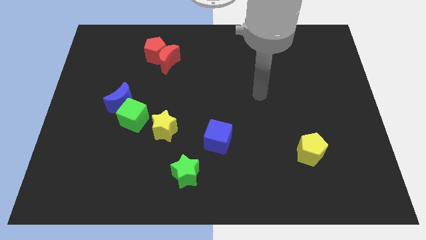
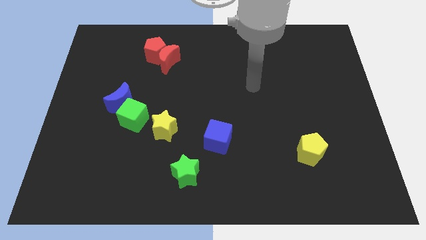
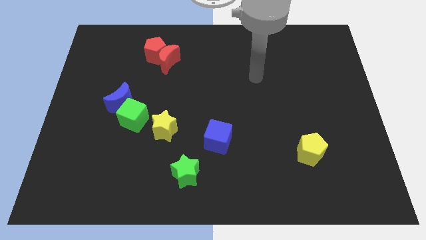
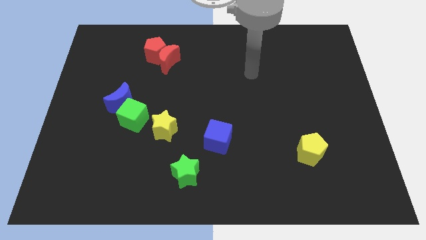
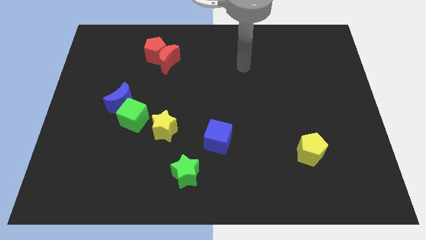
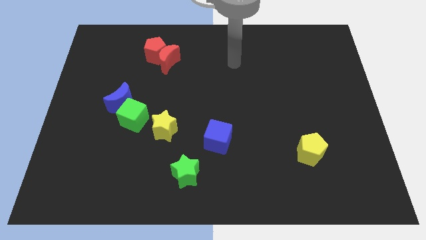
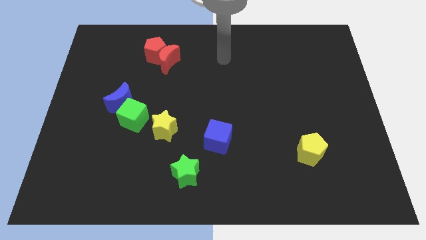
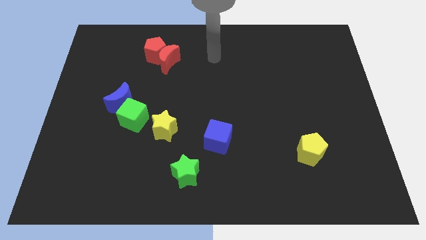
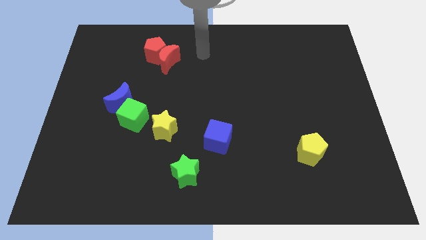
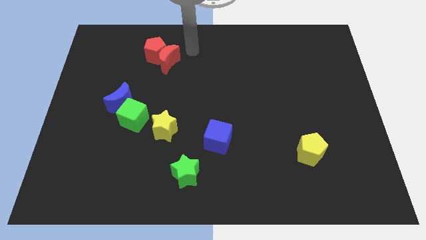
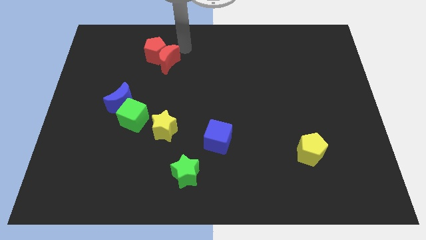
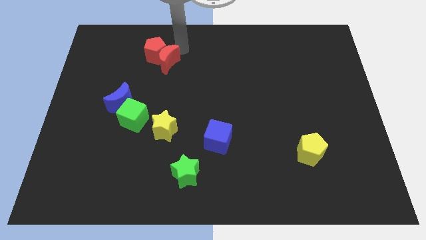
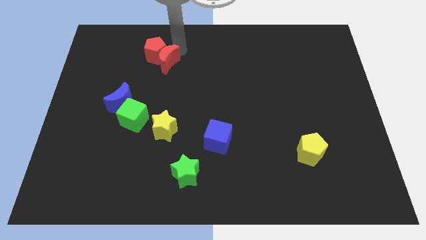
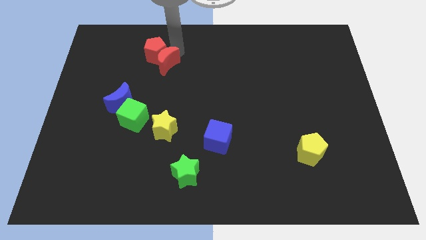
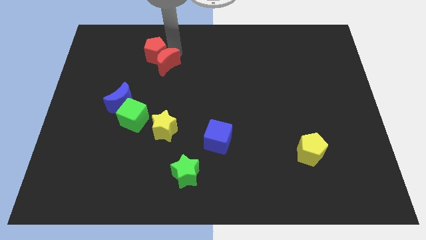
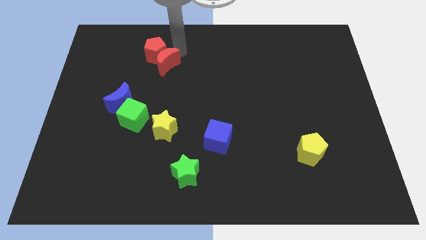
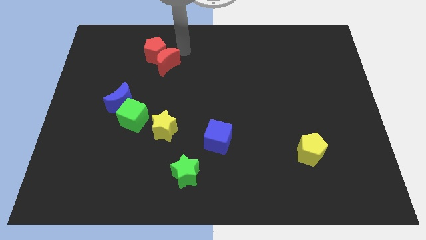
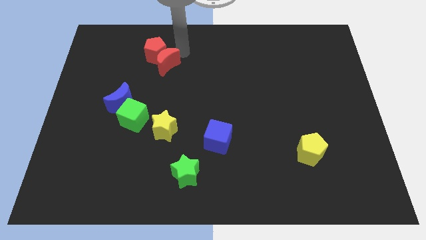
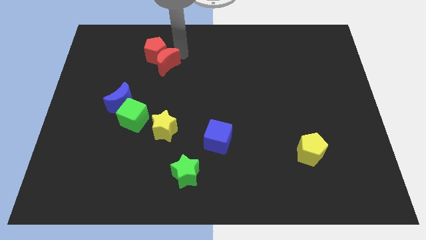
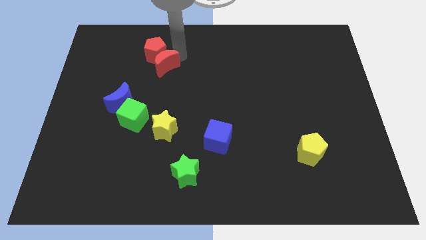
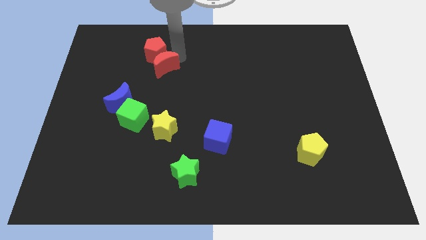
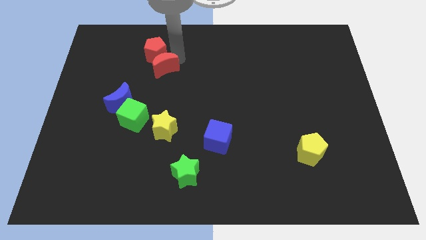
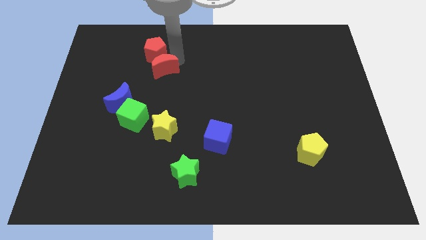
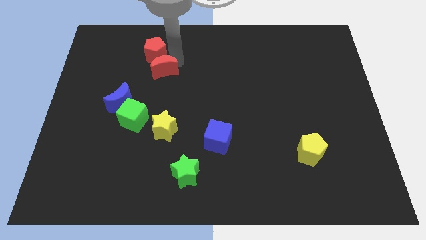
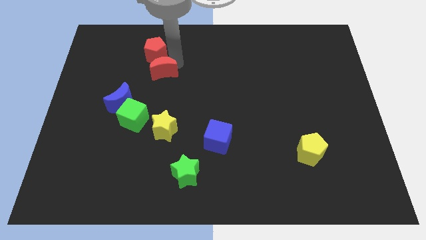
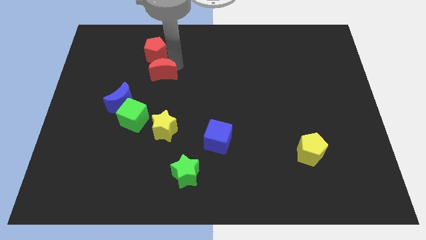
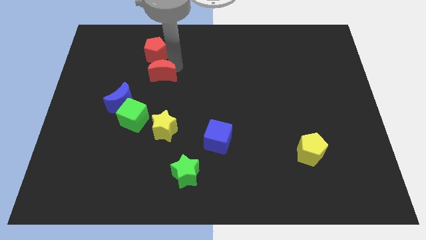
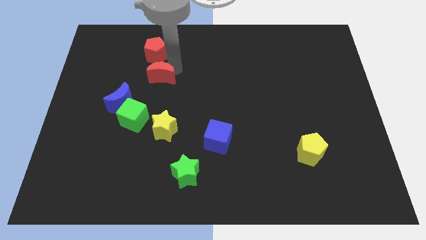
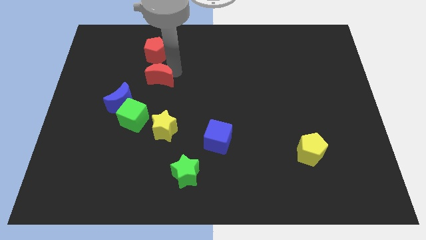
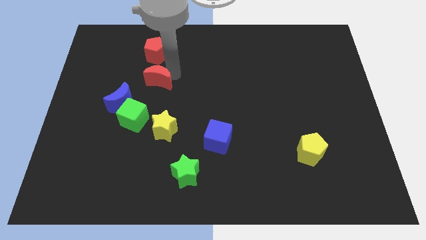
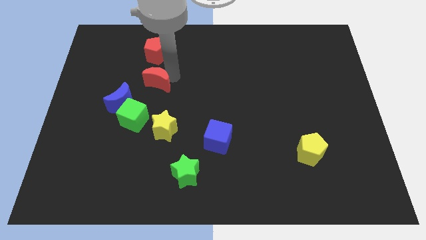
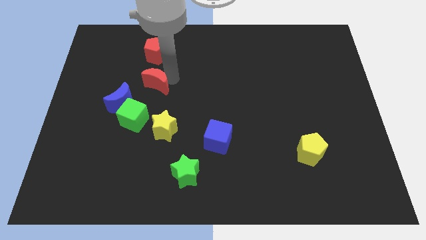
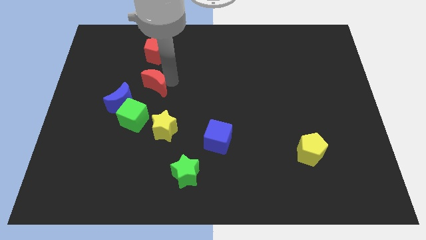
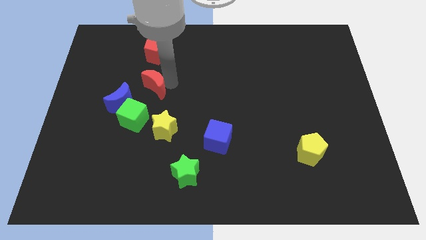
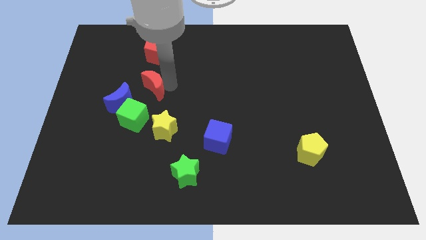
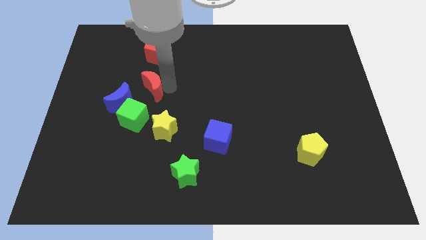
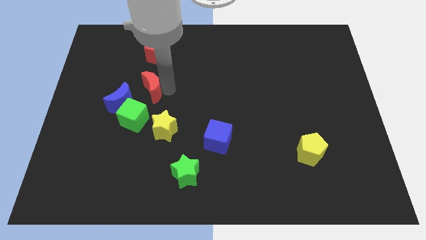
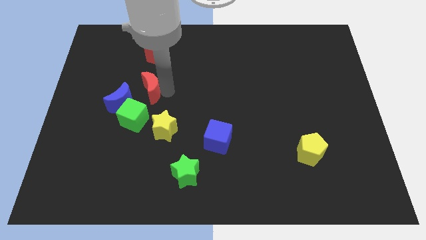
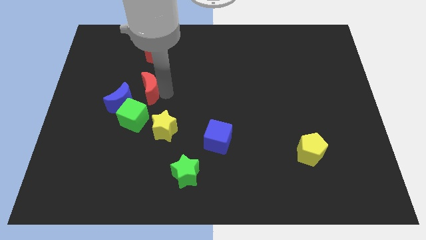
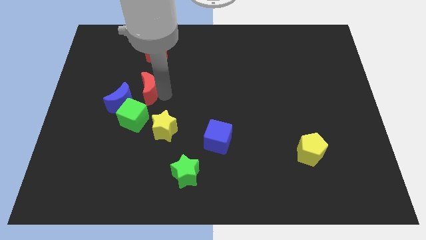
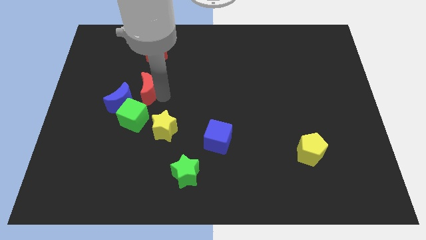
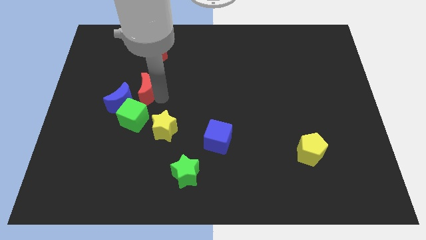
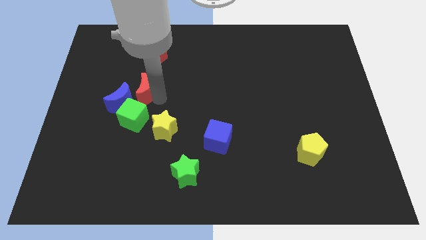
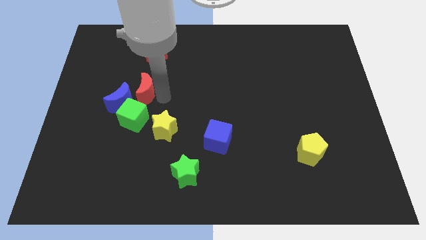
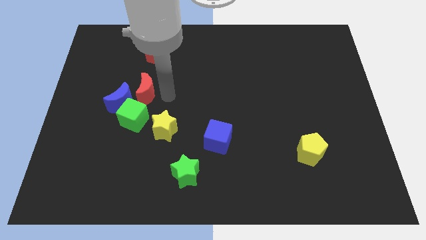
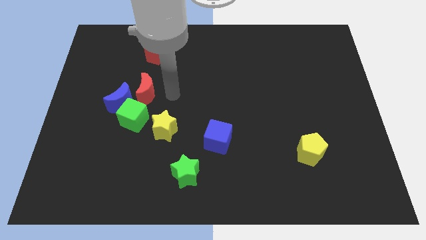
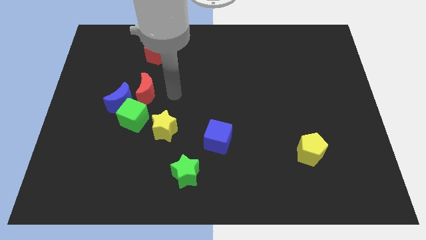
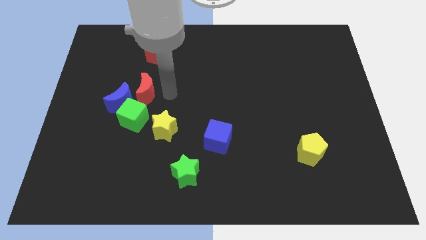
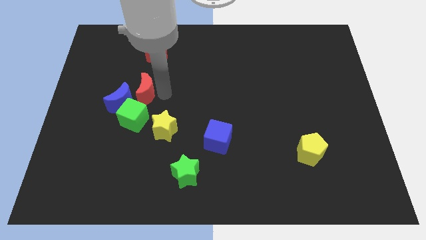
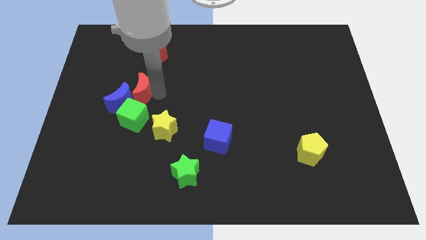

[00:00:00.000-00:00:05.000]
put the red moon next to the blue moon

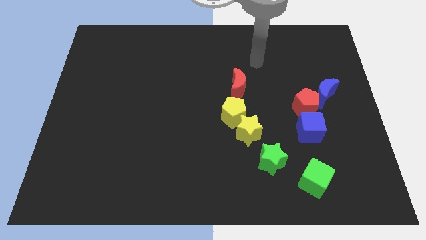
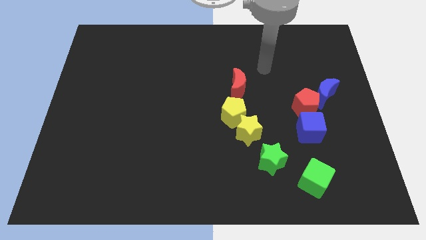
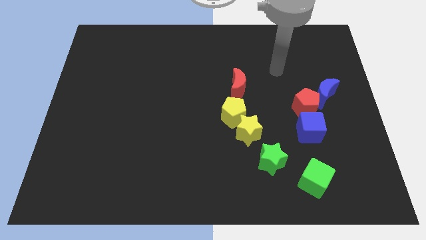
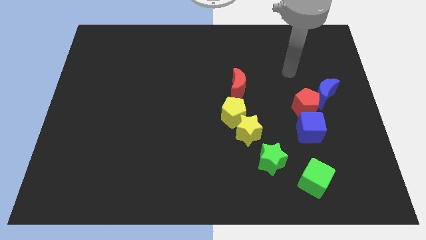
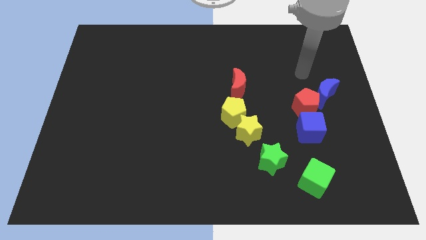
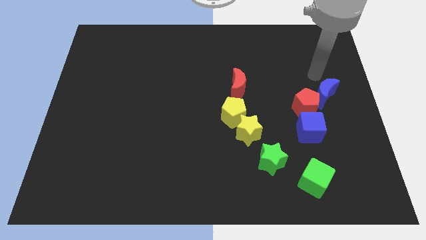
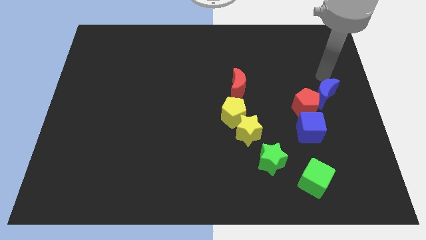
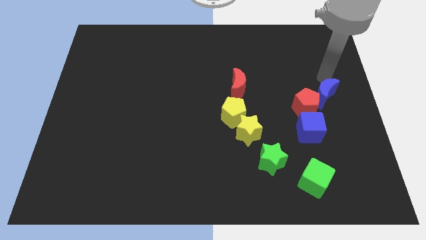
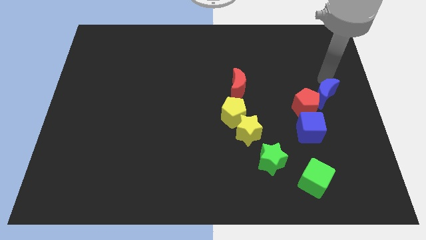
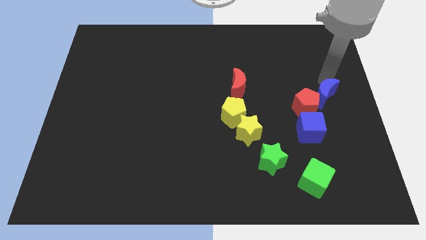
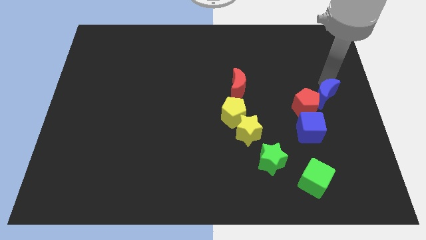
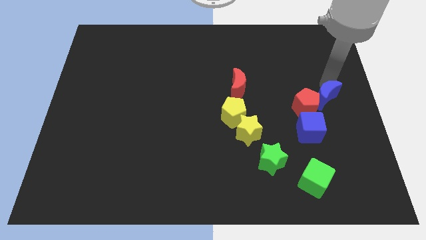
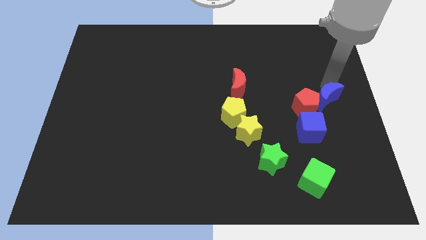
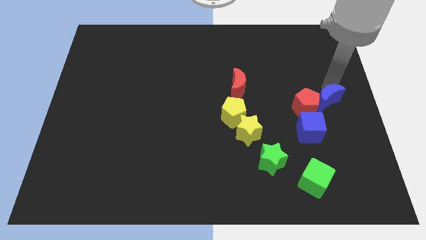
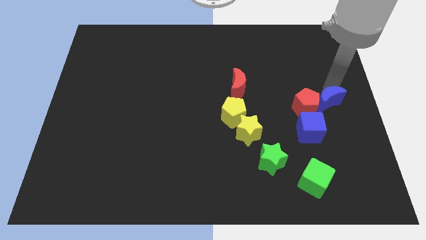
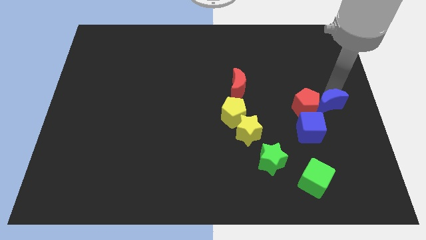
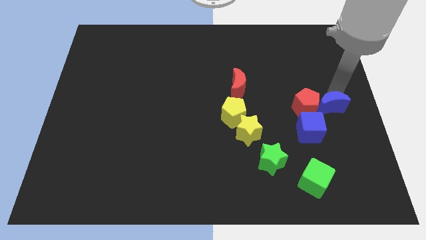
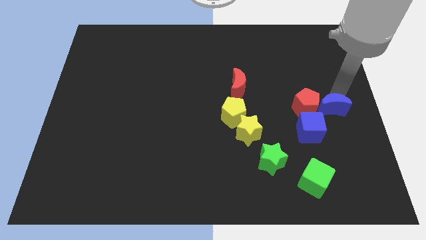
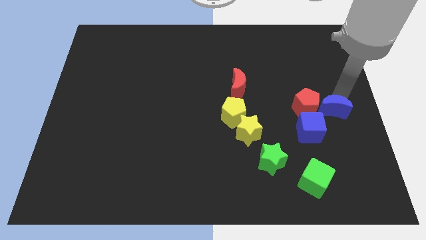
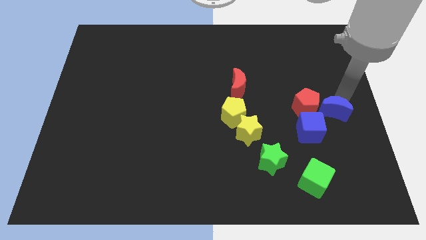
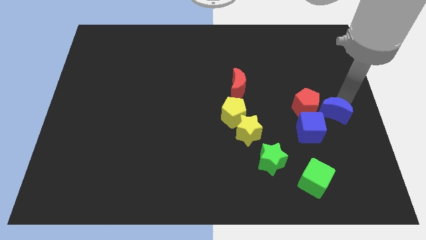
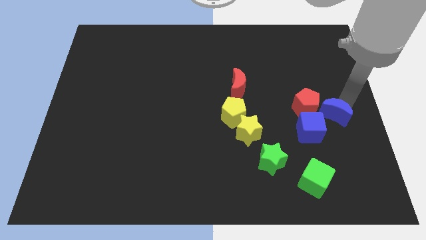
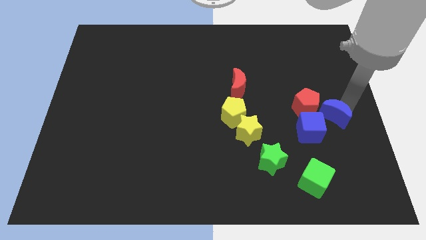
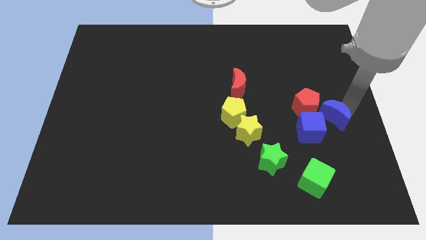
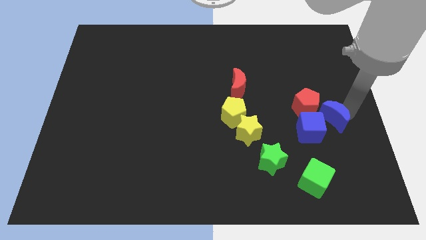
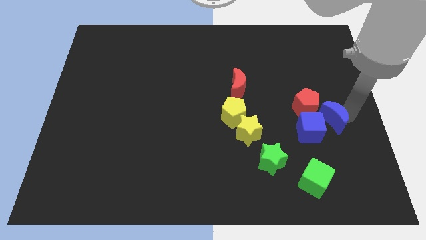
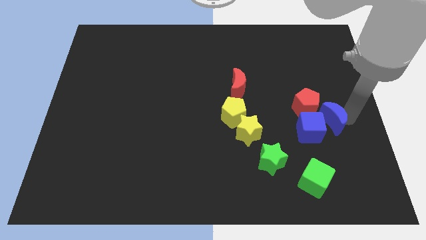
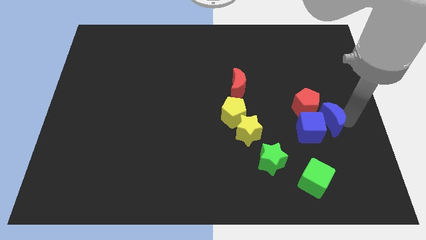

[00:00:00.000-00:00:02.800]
slide the blue moon close to the blue cube
